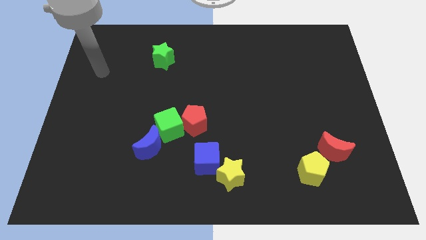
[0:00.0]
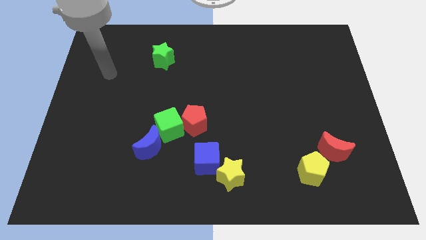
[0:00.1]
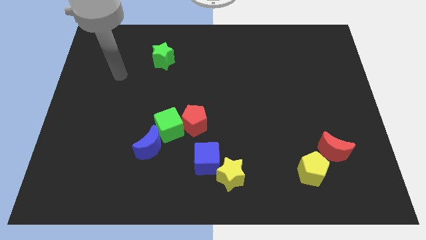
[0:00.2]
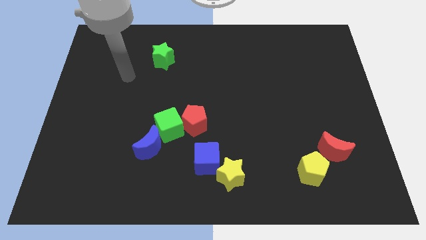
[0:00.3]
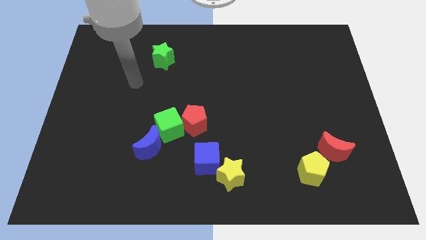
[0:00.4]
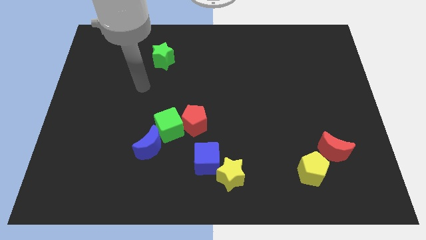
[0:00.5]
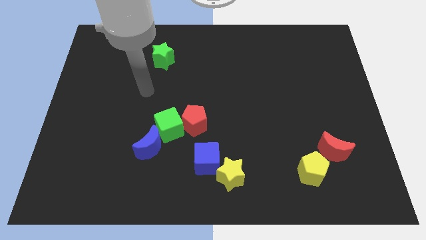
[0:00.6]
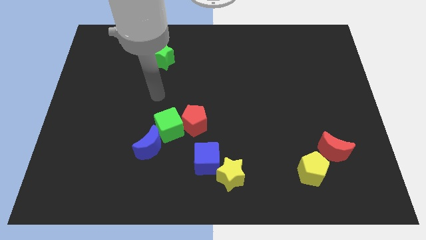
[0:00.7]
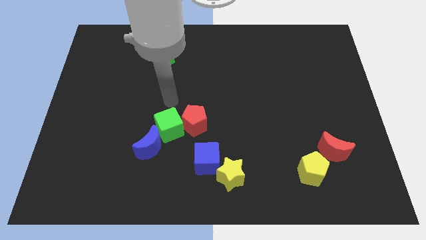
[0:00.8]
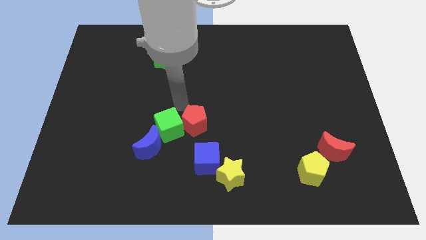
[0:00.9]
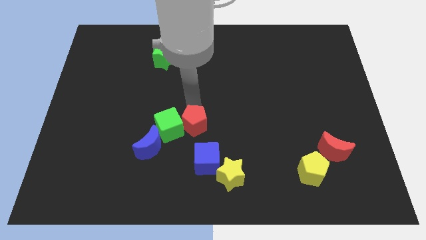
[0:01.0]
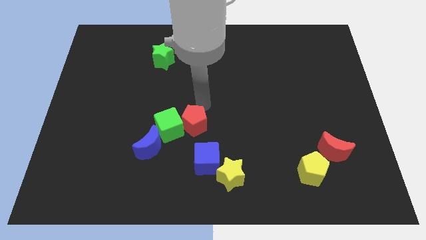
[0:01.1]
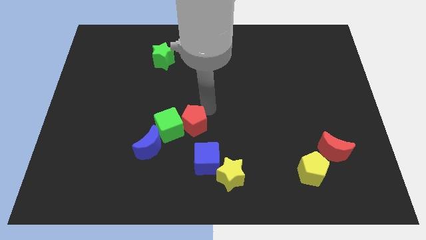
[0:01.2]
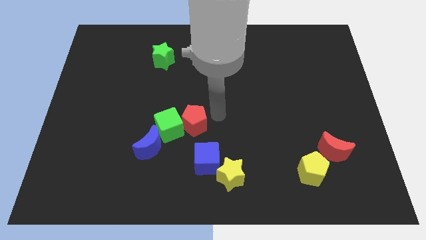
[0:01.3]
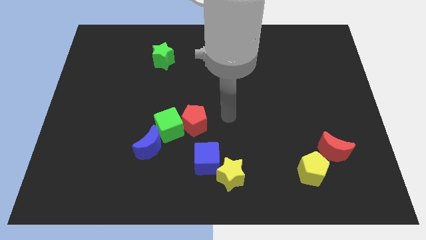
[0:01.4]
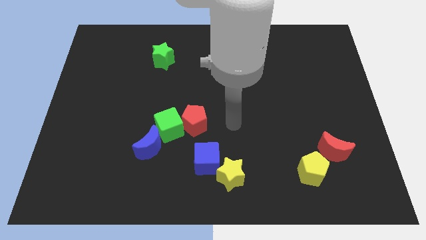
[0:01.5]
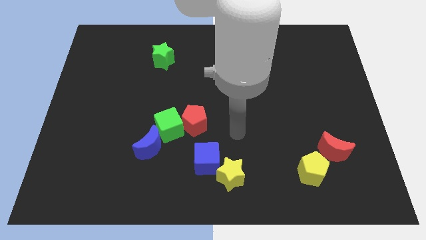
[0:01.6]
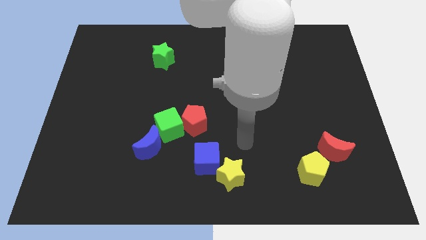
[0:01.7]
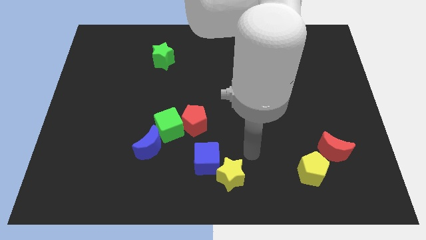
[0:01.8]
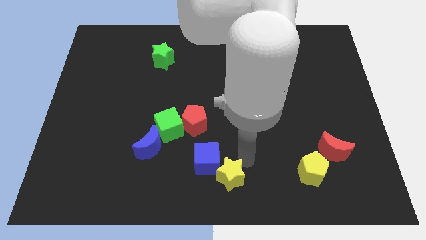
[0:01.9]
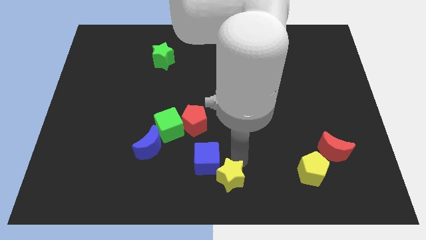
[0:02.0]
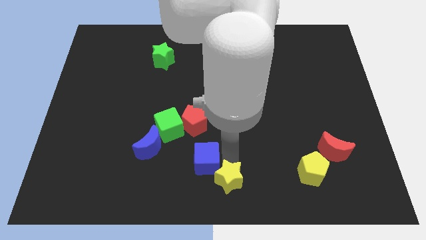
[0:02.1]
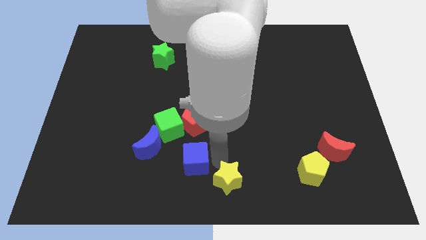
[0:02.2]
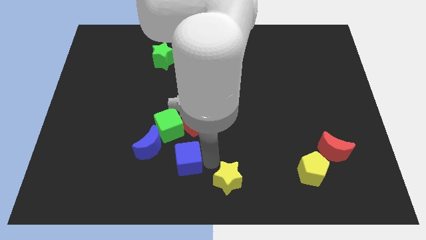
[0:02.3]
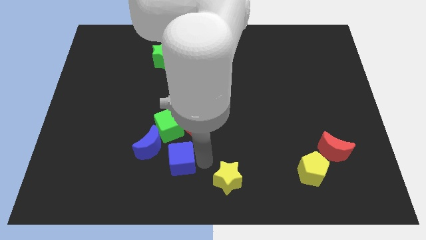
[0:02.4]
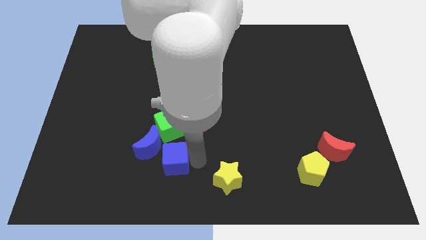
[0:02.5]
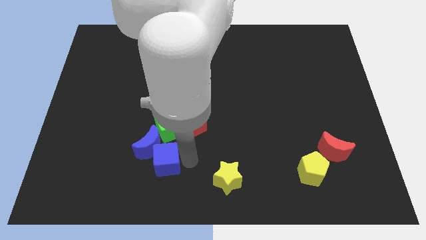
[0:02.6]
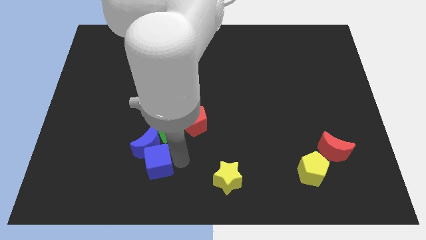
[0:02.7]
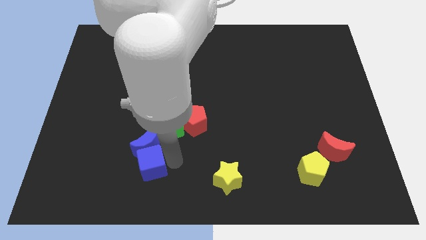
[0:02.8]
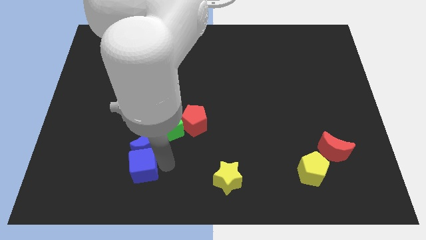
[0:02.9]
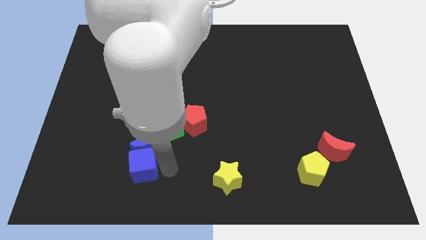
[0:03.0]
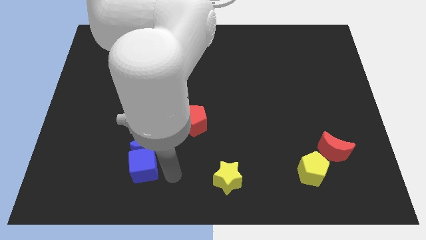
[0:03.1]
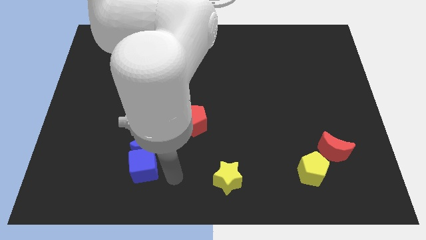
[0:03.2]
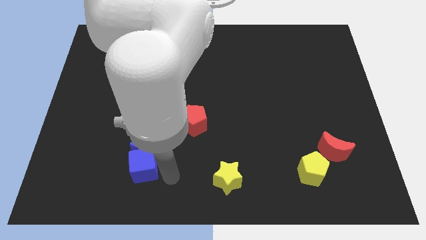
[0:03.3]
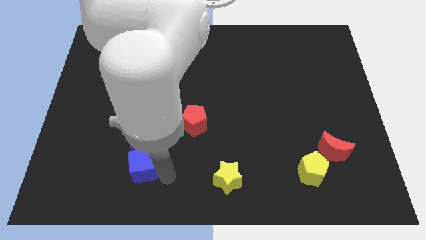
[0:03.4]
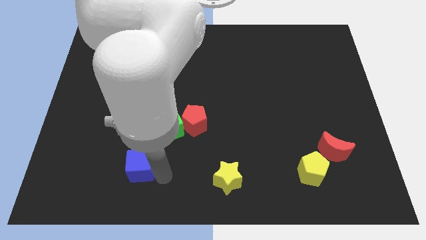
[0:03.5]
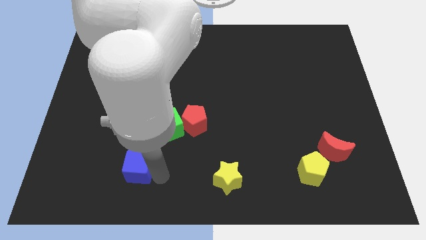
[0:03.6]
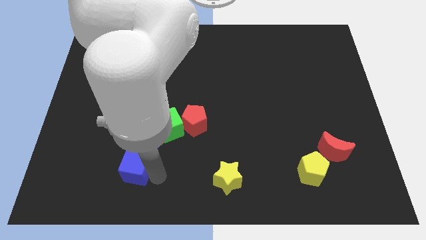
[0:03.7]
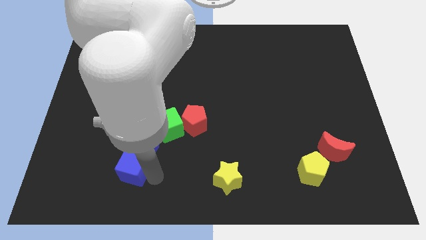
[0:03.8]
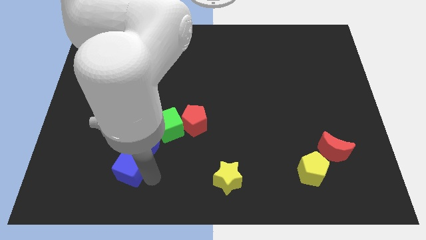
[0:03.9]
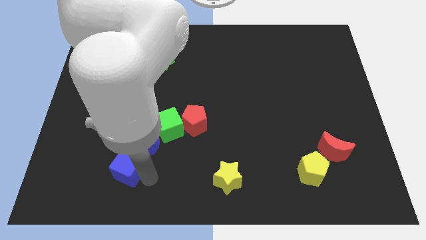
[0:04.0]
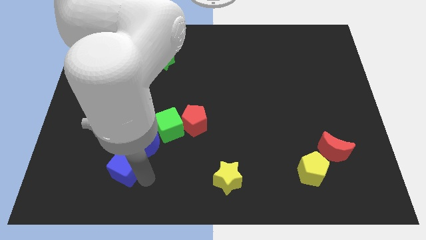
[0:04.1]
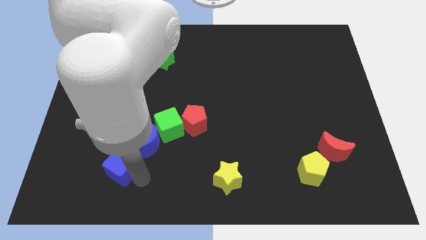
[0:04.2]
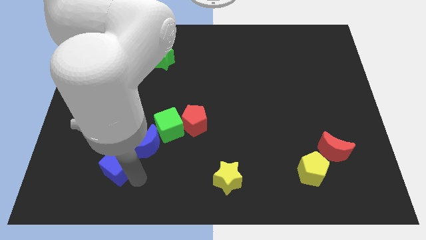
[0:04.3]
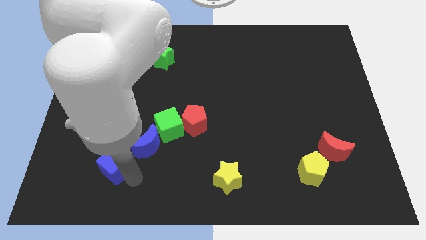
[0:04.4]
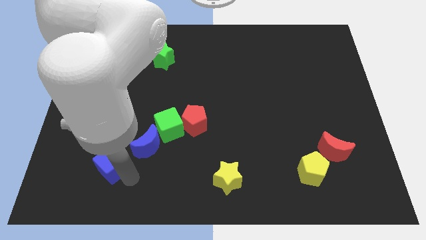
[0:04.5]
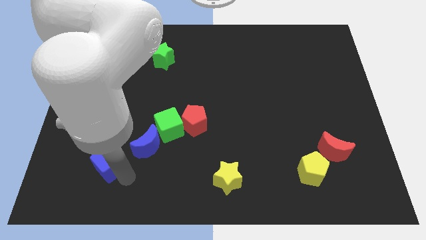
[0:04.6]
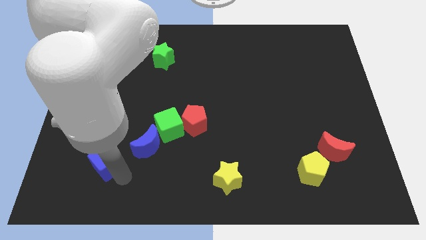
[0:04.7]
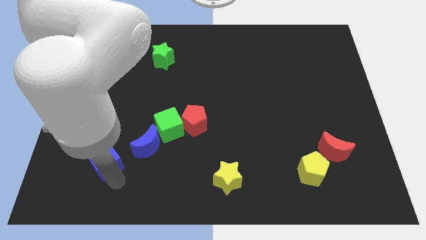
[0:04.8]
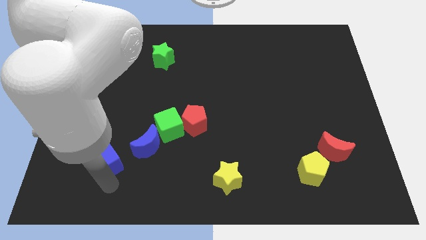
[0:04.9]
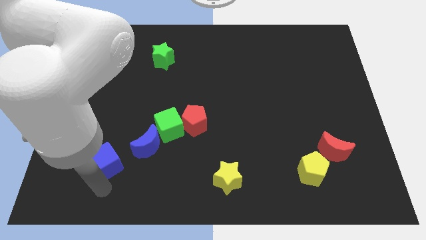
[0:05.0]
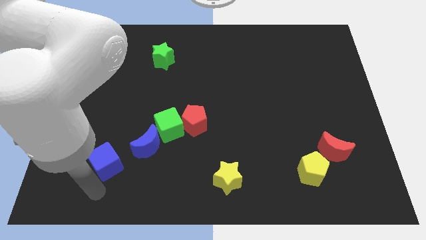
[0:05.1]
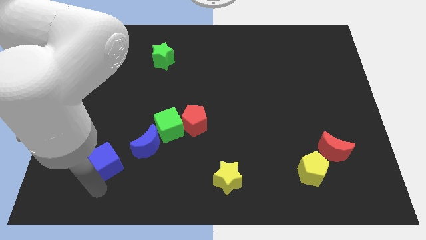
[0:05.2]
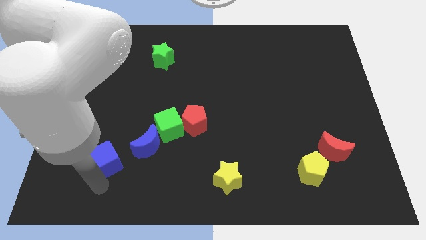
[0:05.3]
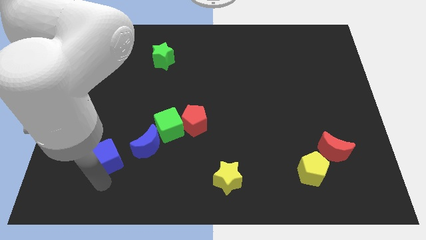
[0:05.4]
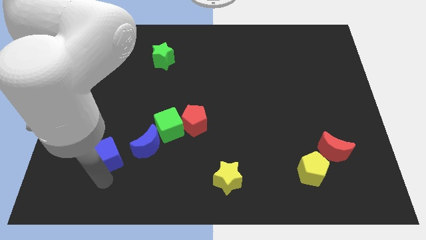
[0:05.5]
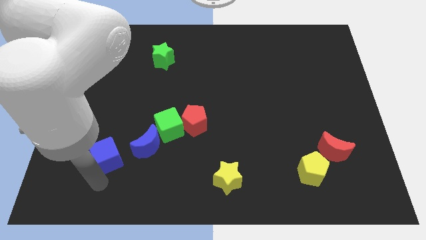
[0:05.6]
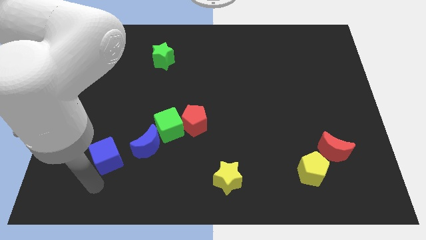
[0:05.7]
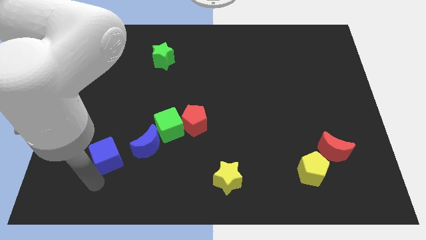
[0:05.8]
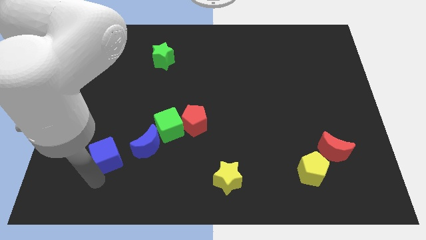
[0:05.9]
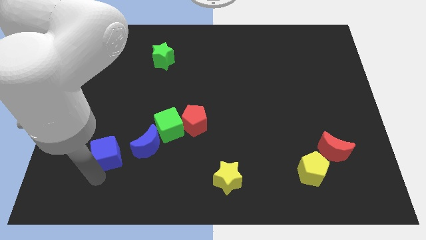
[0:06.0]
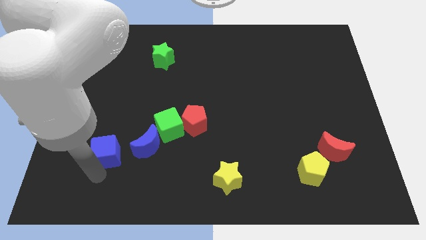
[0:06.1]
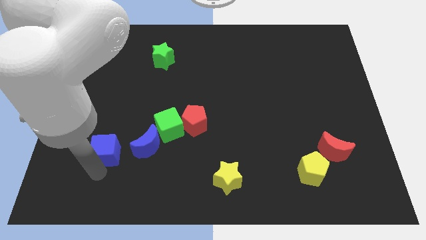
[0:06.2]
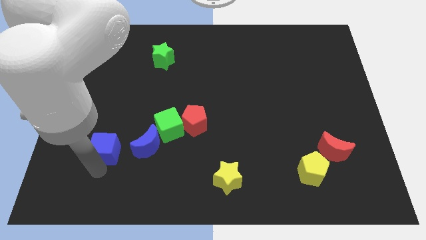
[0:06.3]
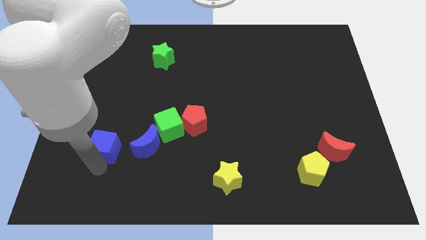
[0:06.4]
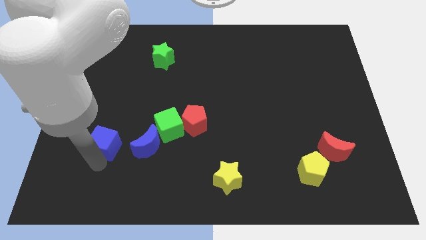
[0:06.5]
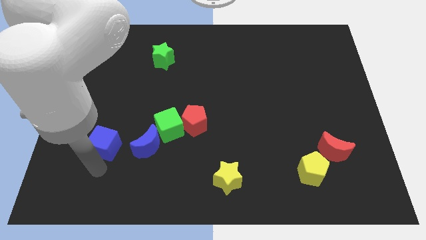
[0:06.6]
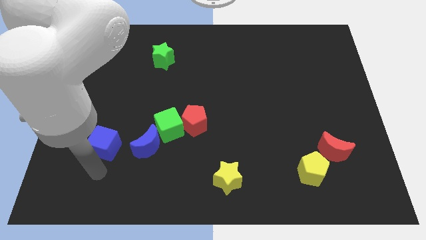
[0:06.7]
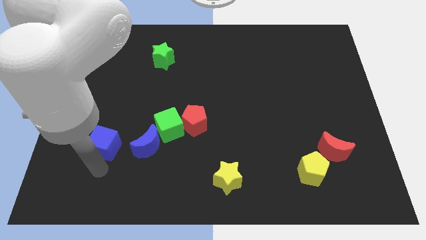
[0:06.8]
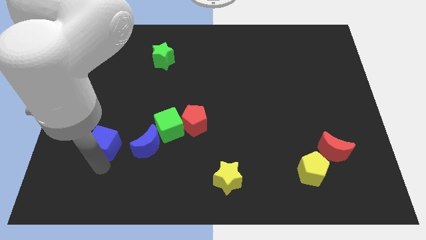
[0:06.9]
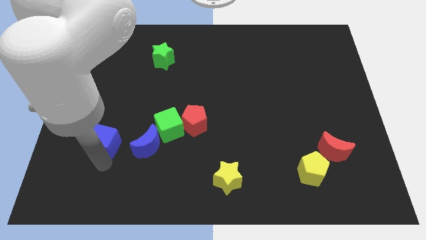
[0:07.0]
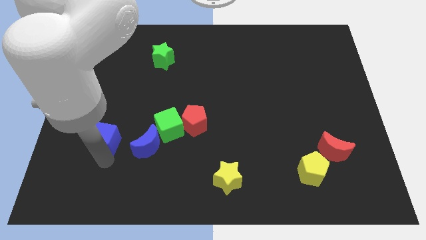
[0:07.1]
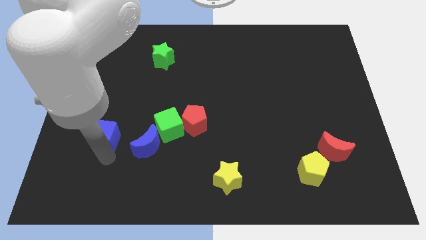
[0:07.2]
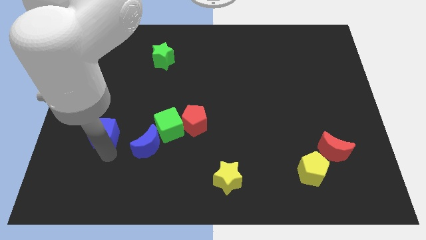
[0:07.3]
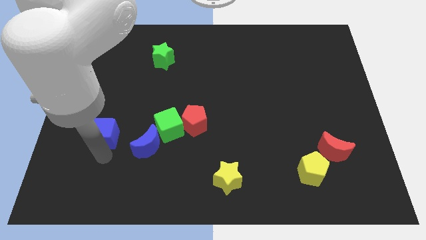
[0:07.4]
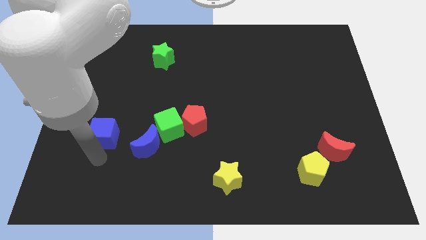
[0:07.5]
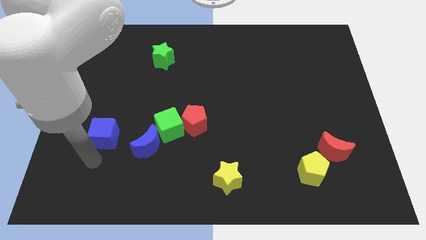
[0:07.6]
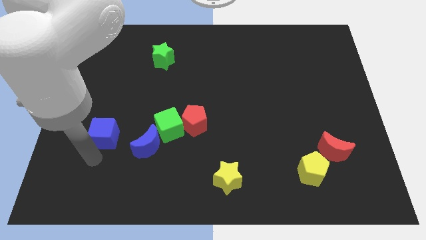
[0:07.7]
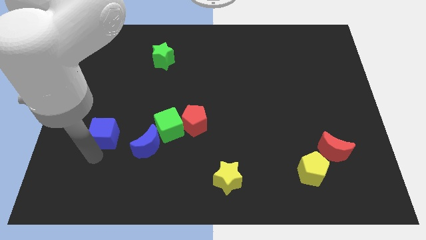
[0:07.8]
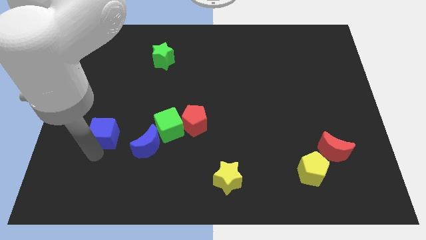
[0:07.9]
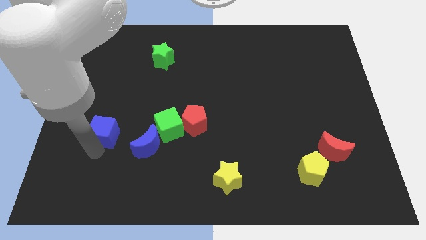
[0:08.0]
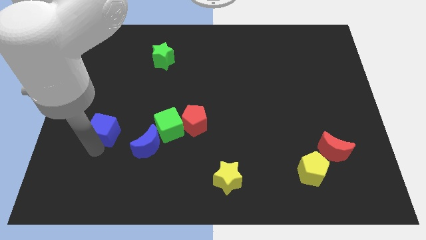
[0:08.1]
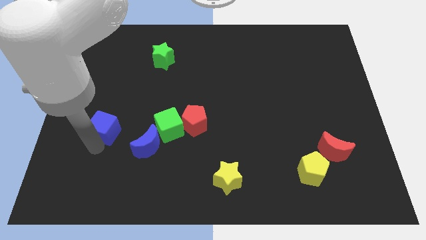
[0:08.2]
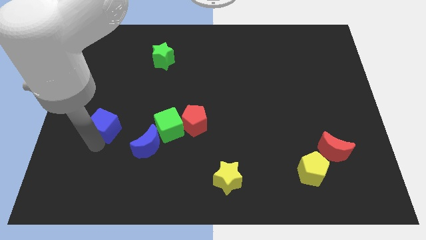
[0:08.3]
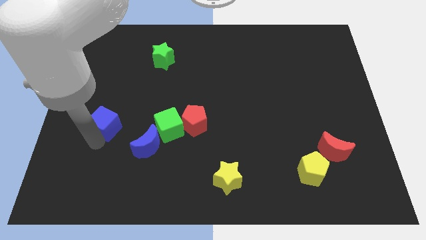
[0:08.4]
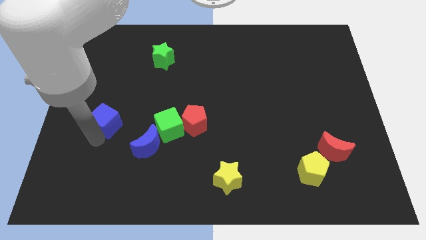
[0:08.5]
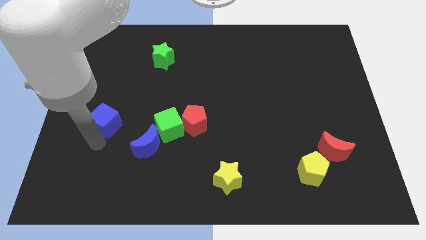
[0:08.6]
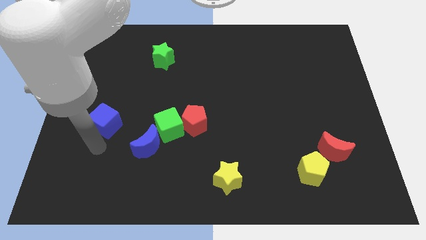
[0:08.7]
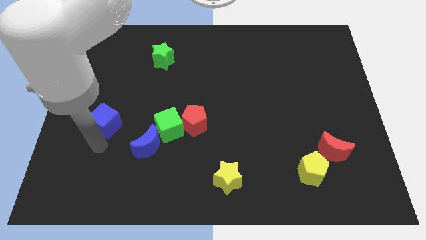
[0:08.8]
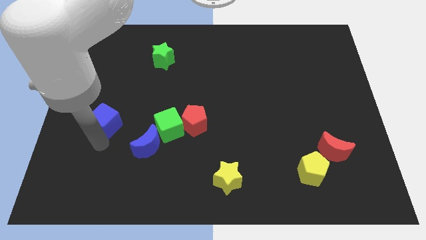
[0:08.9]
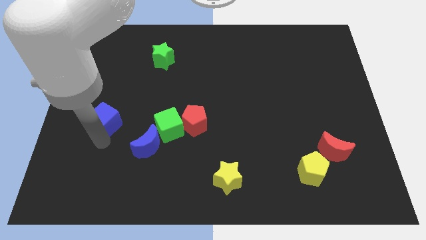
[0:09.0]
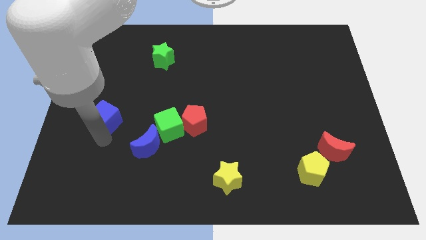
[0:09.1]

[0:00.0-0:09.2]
slide the blue cube upwards and left diagonally
